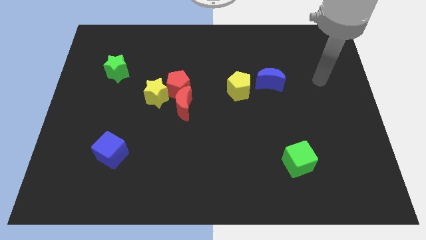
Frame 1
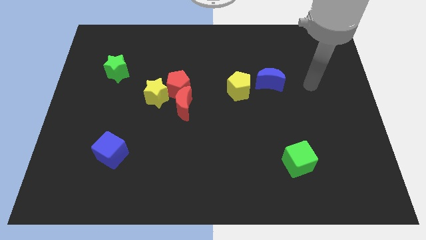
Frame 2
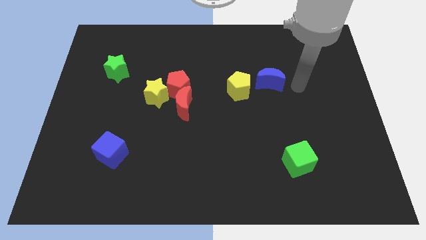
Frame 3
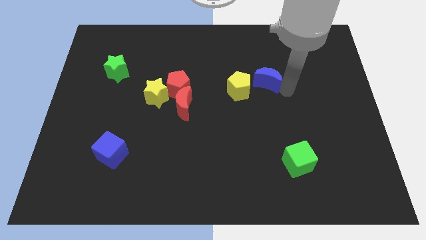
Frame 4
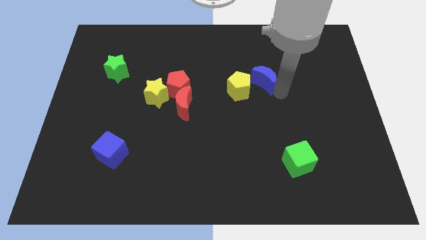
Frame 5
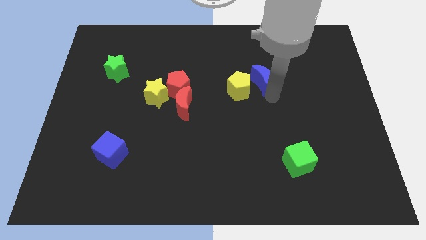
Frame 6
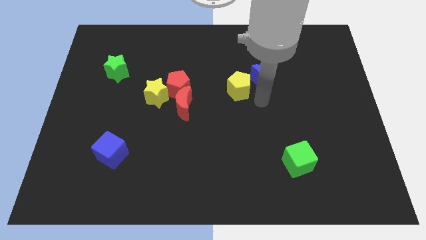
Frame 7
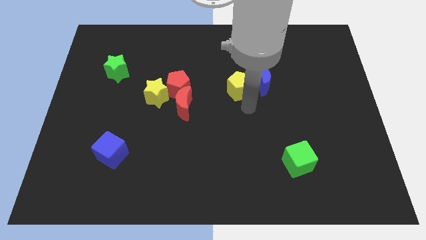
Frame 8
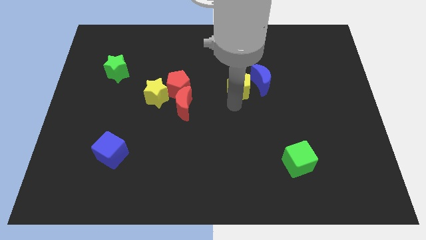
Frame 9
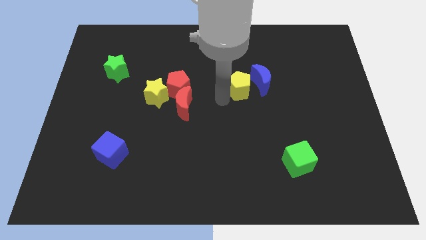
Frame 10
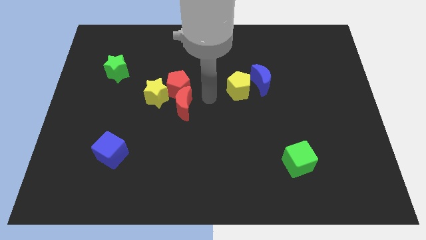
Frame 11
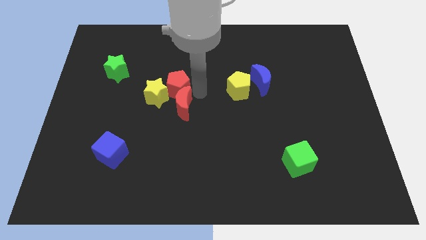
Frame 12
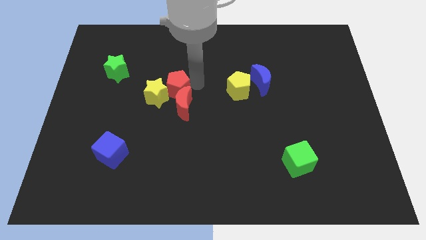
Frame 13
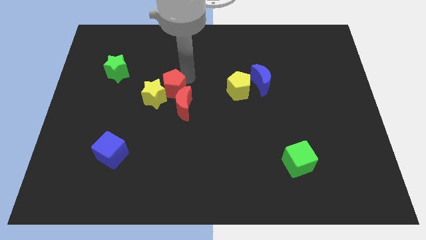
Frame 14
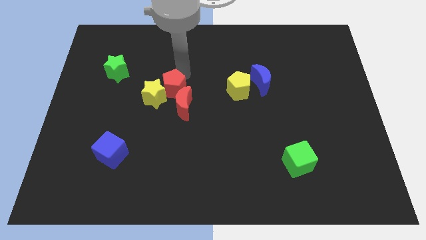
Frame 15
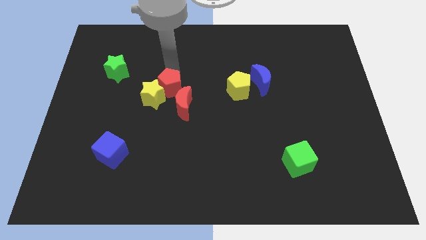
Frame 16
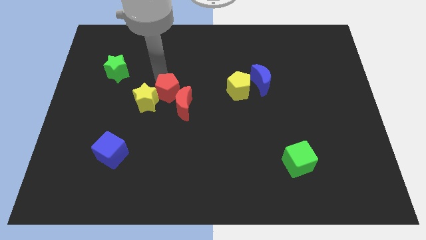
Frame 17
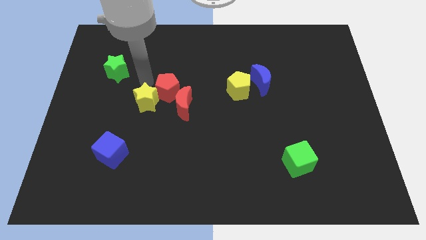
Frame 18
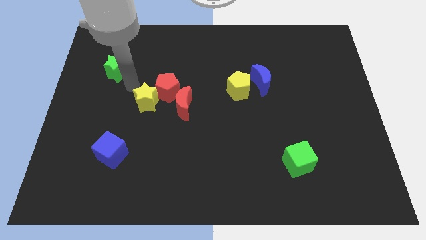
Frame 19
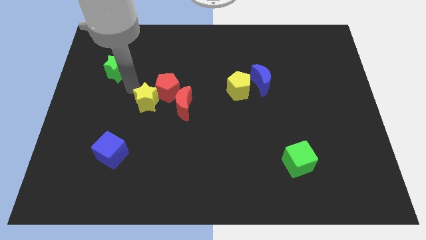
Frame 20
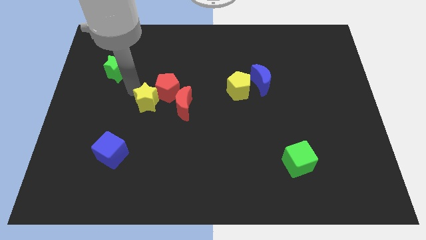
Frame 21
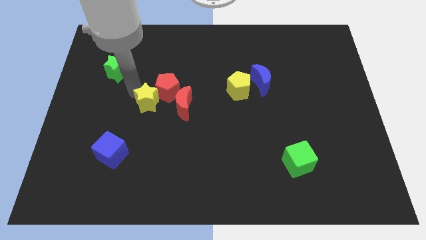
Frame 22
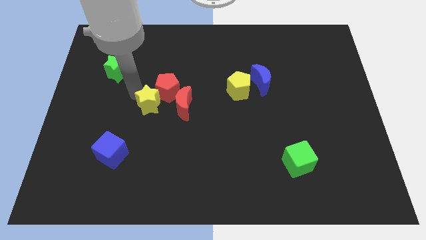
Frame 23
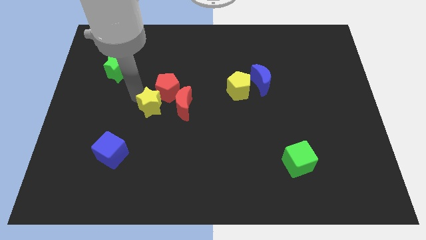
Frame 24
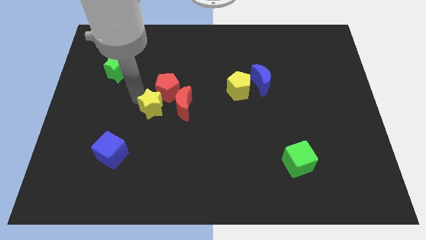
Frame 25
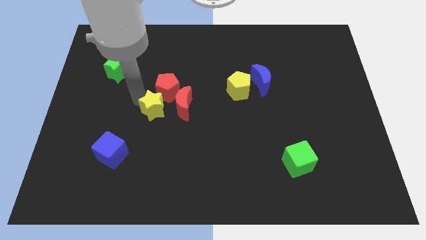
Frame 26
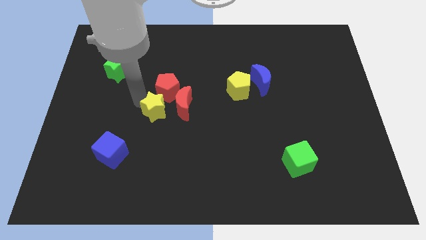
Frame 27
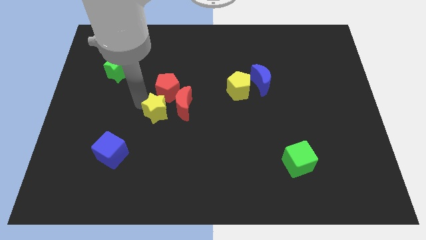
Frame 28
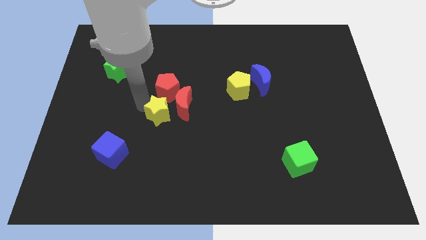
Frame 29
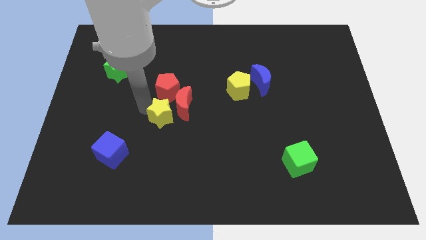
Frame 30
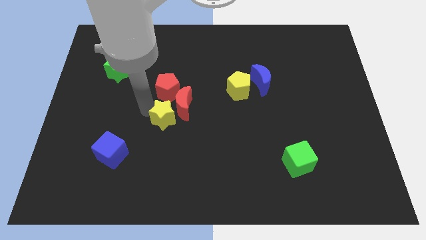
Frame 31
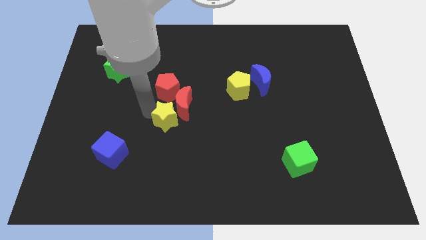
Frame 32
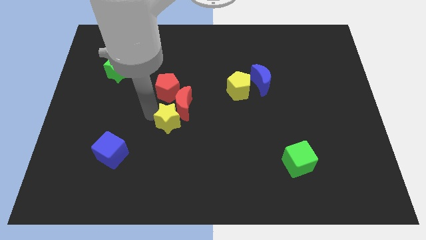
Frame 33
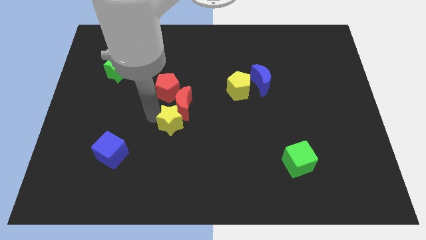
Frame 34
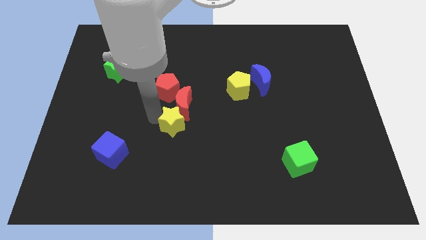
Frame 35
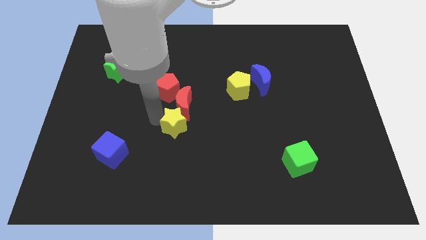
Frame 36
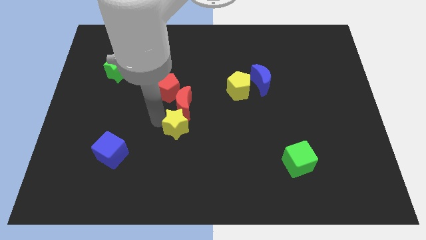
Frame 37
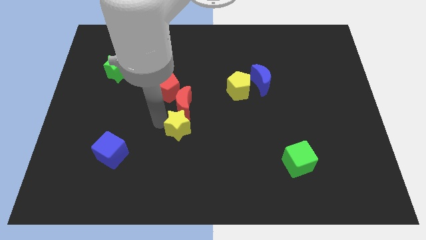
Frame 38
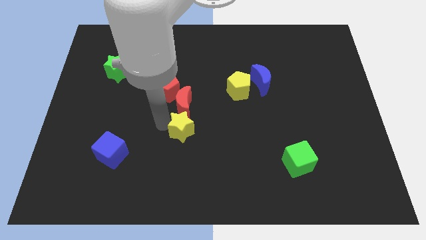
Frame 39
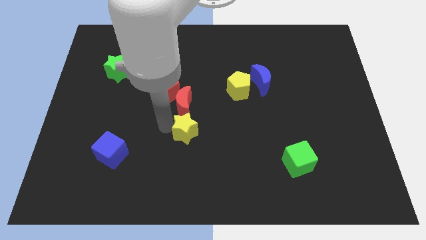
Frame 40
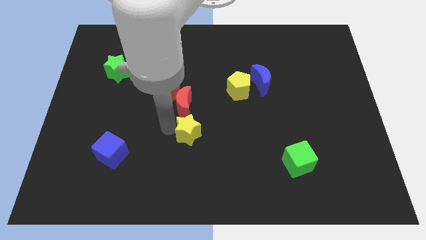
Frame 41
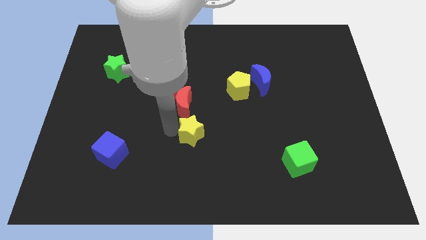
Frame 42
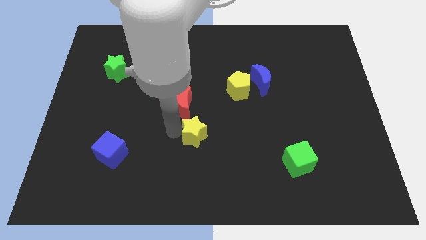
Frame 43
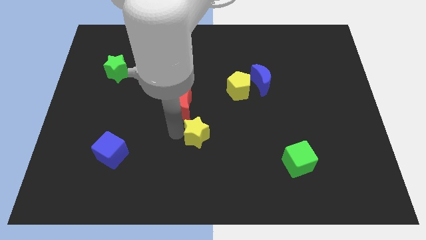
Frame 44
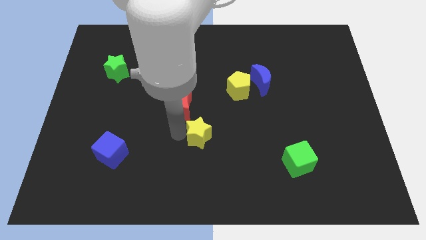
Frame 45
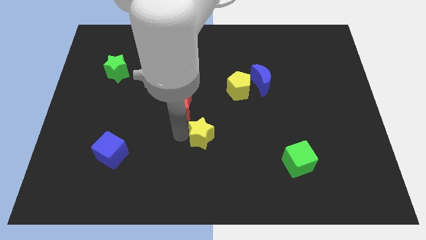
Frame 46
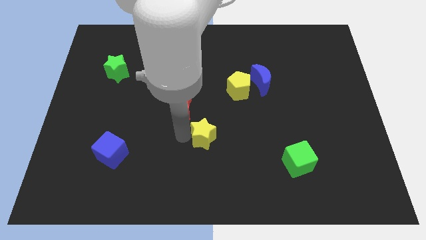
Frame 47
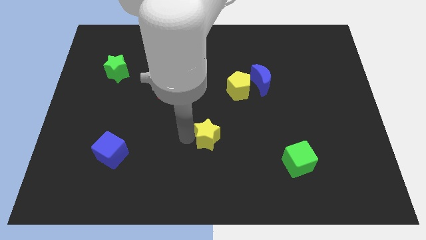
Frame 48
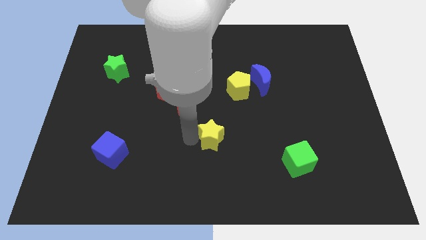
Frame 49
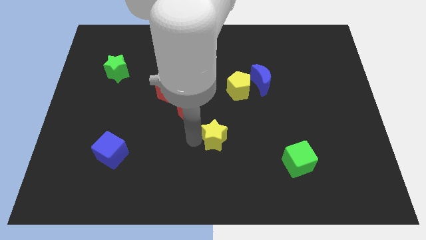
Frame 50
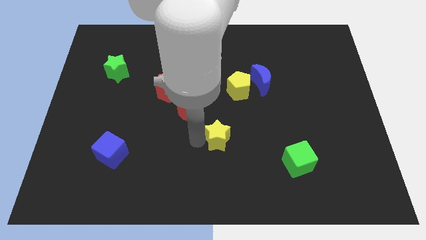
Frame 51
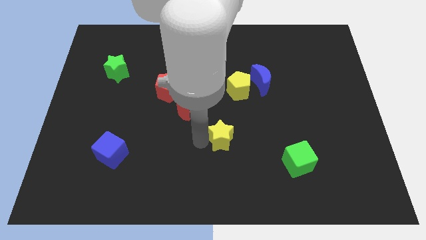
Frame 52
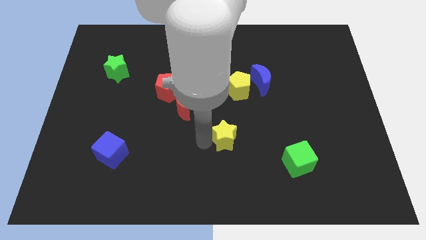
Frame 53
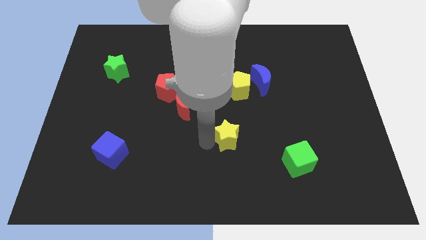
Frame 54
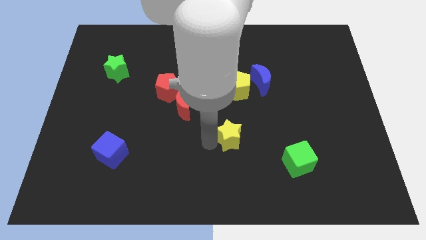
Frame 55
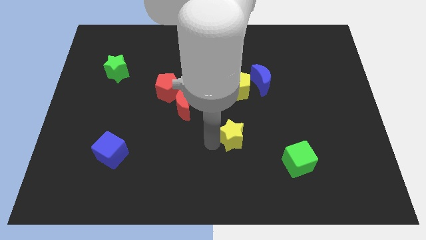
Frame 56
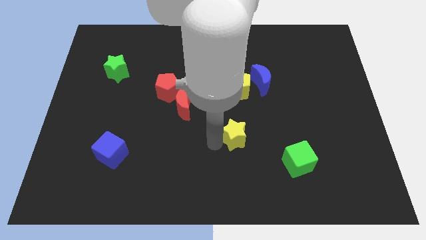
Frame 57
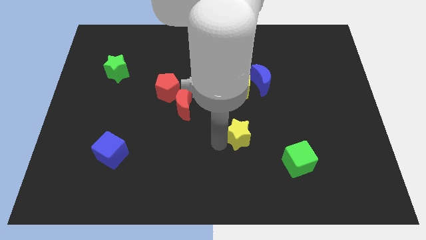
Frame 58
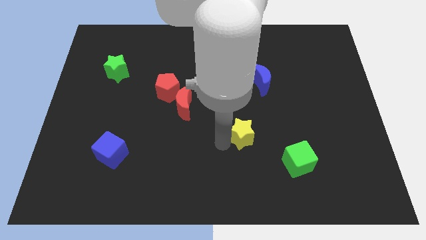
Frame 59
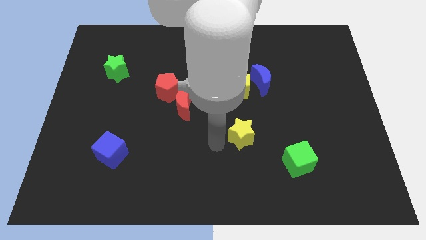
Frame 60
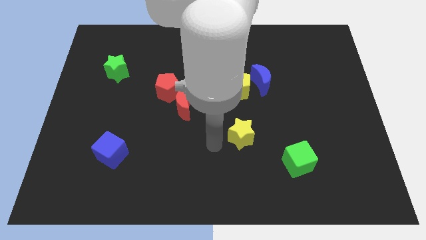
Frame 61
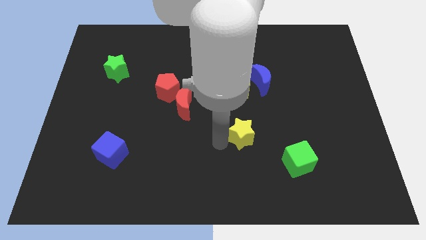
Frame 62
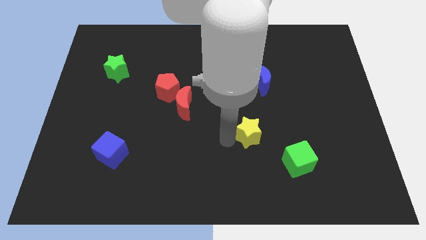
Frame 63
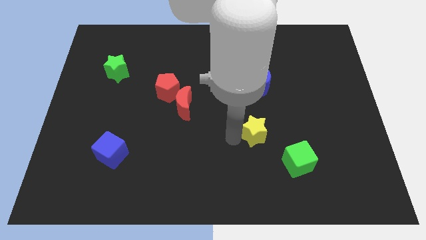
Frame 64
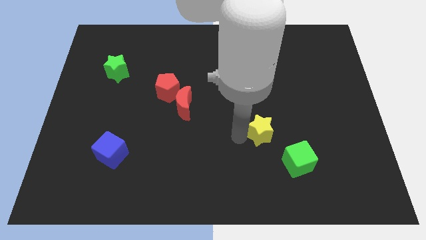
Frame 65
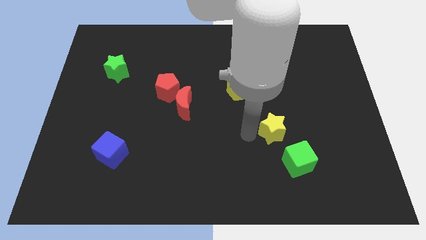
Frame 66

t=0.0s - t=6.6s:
push the yellow star above the green cube

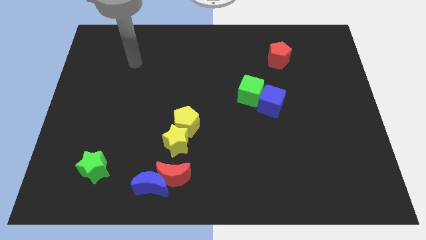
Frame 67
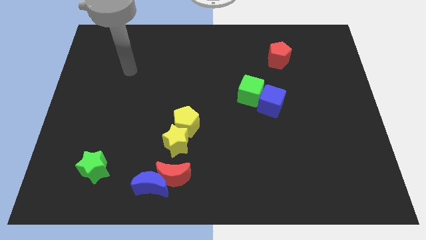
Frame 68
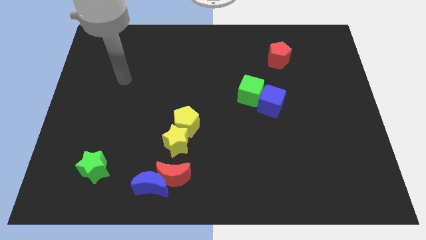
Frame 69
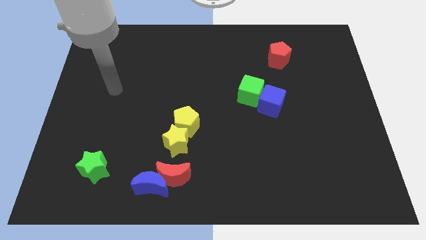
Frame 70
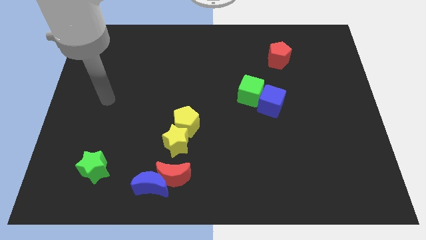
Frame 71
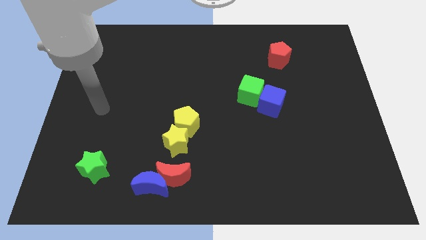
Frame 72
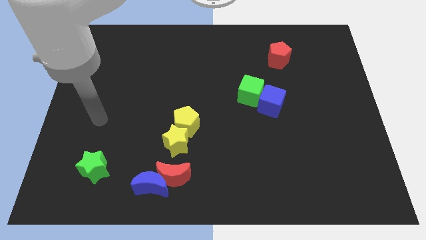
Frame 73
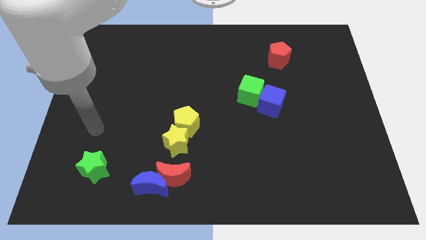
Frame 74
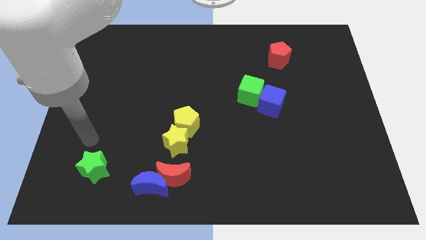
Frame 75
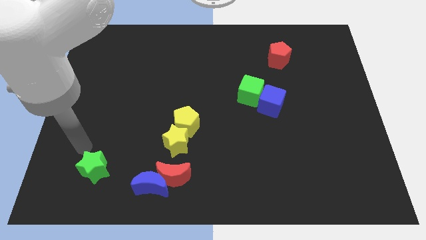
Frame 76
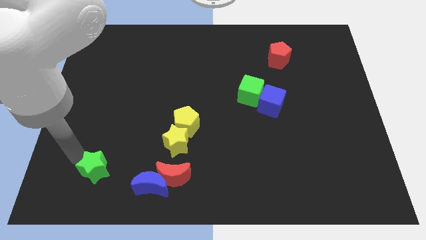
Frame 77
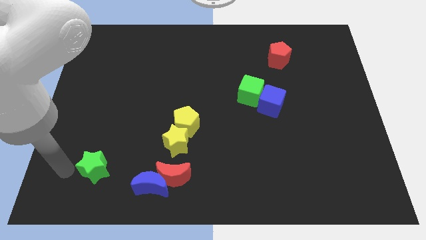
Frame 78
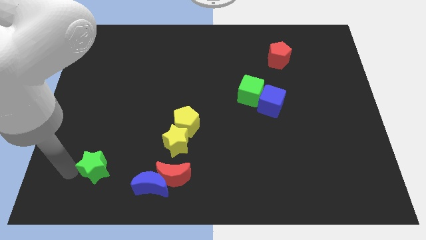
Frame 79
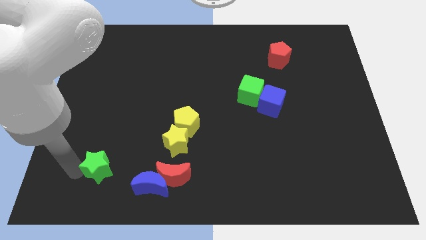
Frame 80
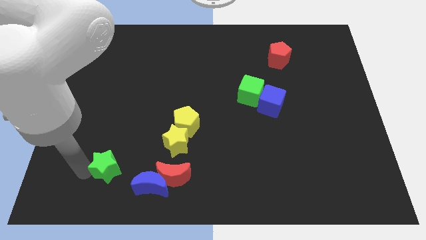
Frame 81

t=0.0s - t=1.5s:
put the green star to the top left side of the blue moon
